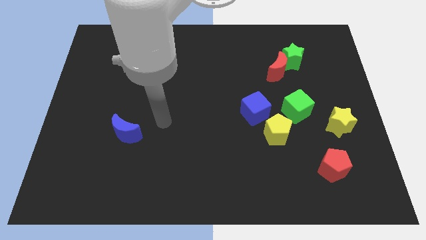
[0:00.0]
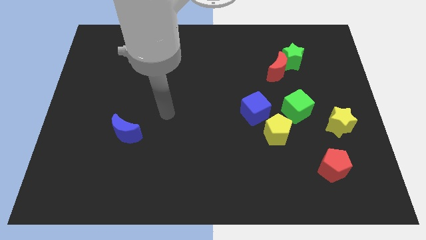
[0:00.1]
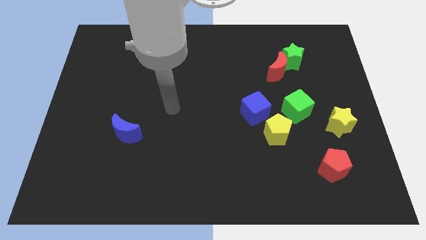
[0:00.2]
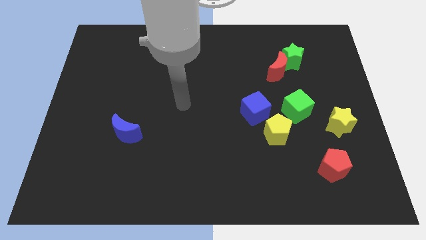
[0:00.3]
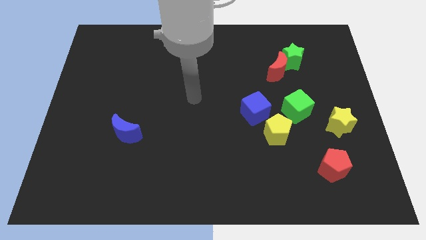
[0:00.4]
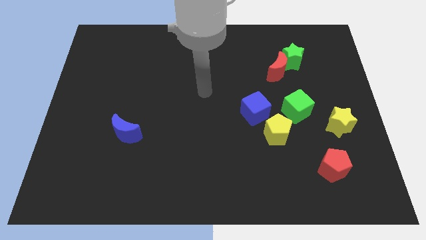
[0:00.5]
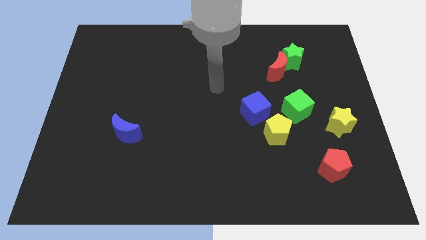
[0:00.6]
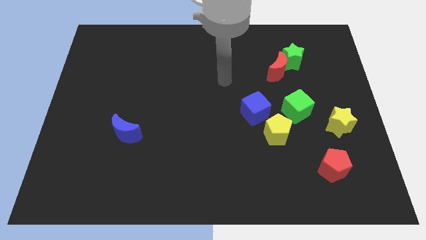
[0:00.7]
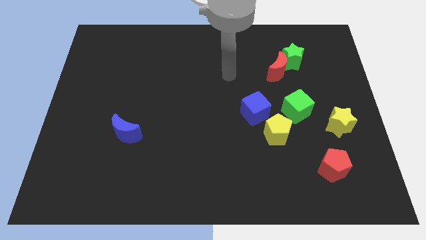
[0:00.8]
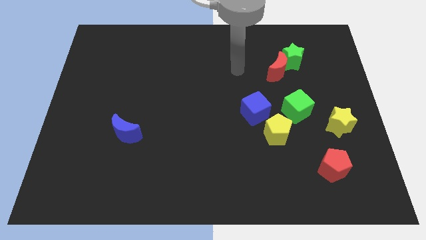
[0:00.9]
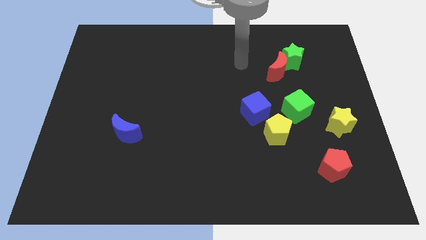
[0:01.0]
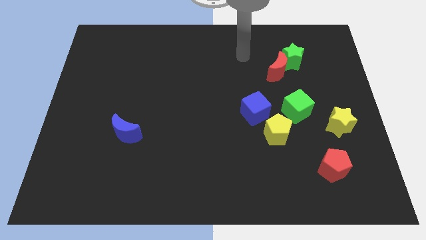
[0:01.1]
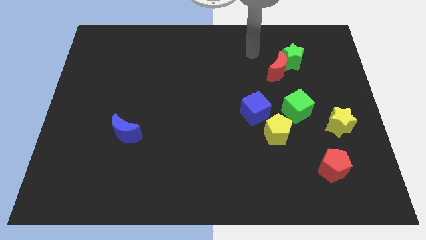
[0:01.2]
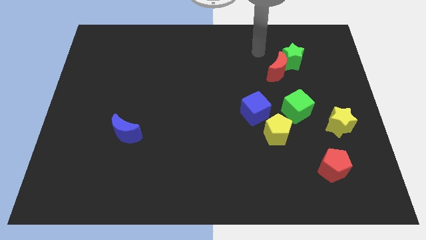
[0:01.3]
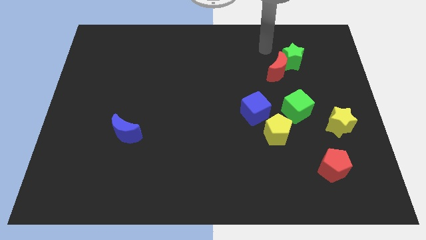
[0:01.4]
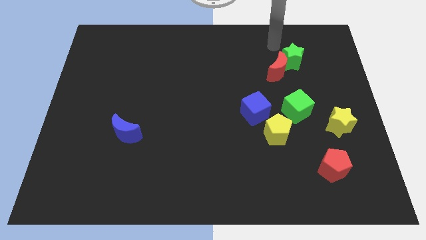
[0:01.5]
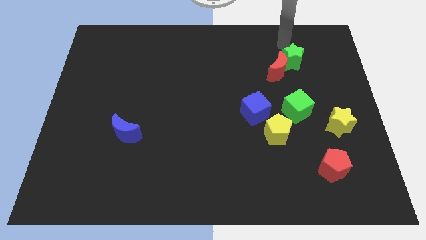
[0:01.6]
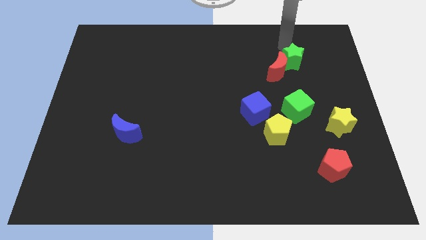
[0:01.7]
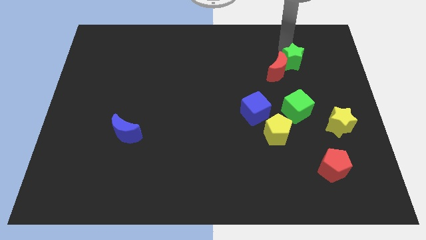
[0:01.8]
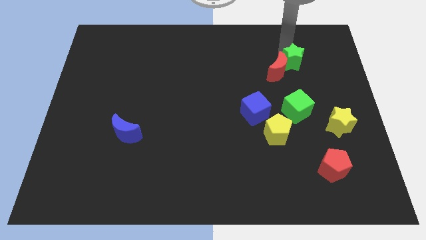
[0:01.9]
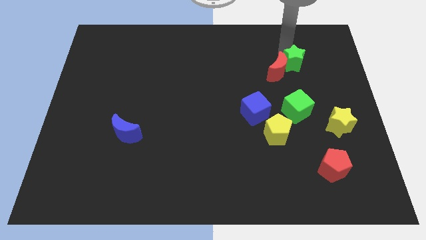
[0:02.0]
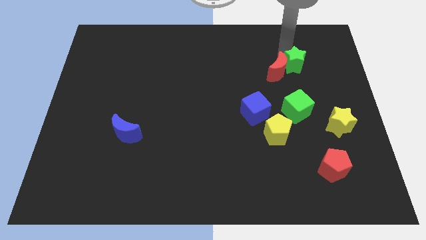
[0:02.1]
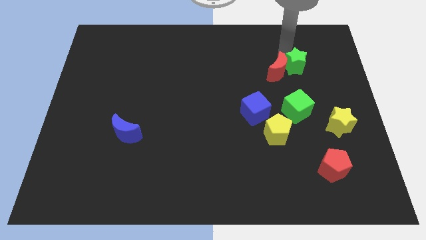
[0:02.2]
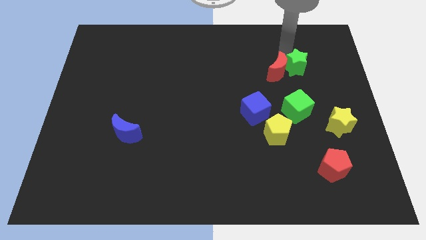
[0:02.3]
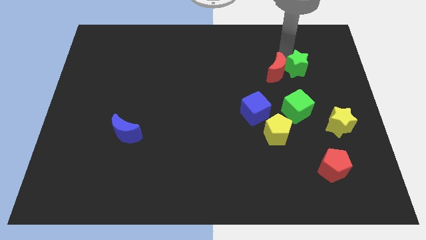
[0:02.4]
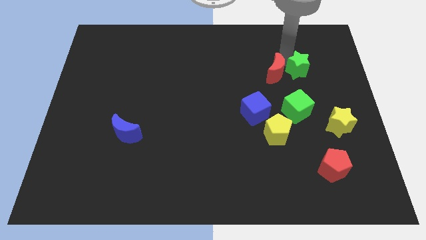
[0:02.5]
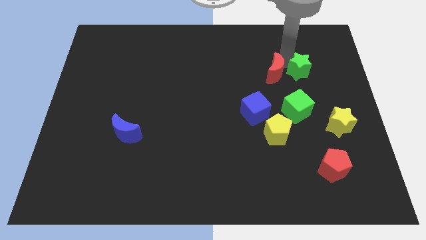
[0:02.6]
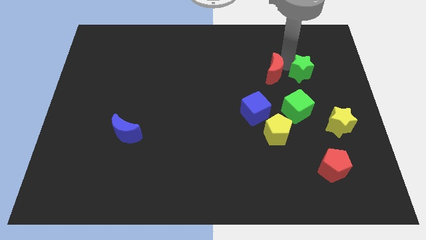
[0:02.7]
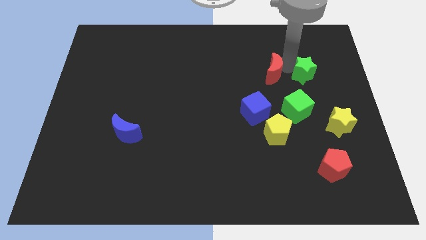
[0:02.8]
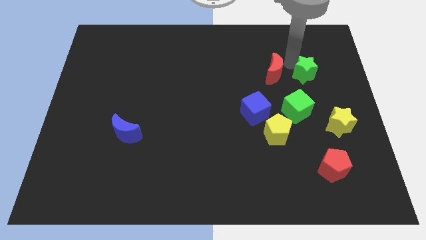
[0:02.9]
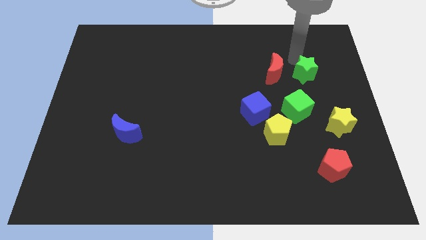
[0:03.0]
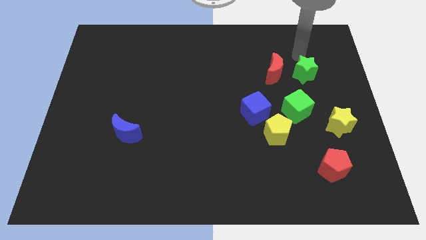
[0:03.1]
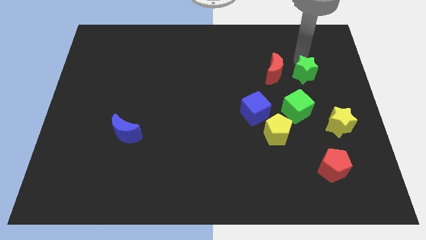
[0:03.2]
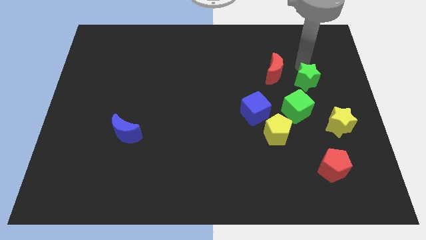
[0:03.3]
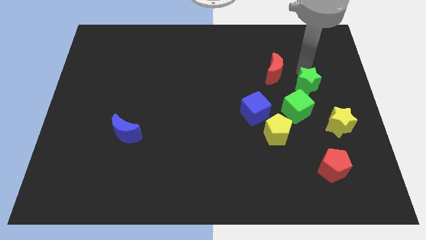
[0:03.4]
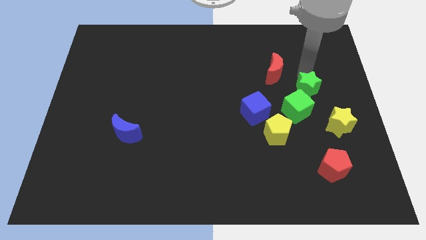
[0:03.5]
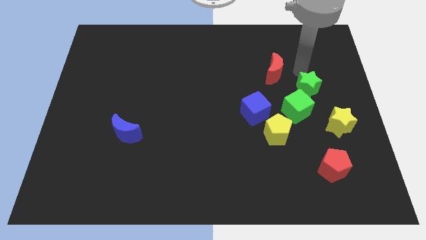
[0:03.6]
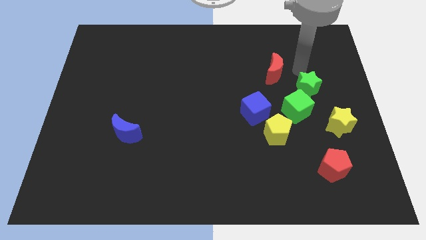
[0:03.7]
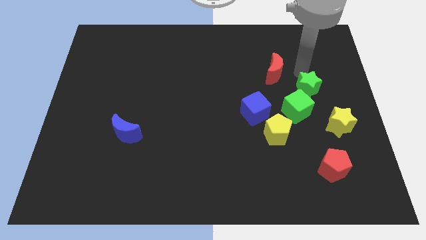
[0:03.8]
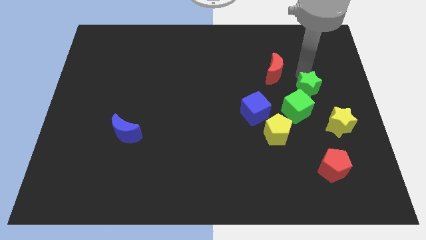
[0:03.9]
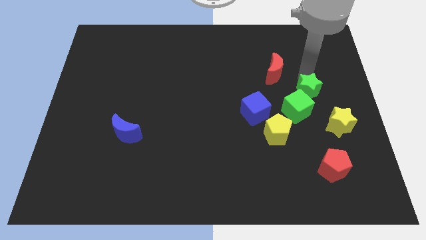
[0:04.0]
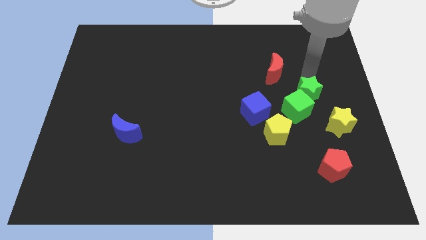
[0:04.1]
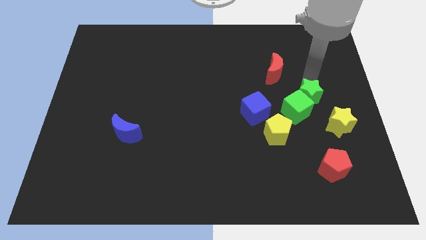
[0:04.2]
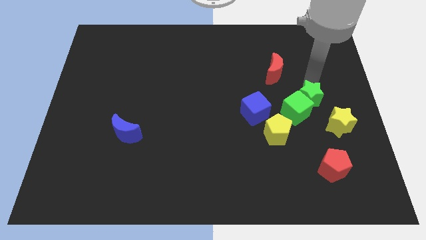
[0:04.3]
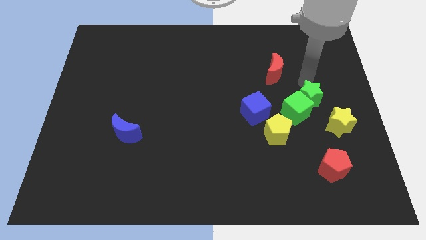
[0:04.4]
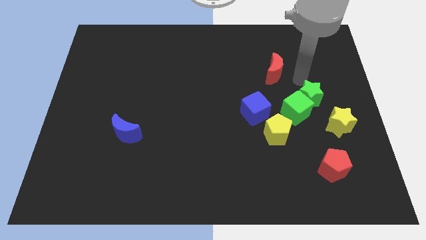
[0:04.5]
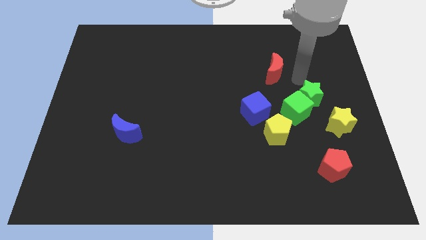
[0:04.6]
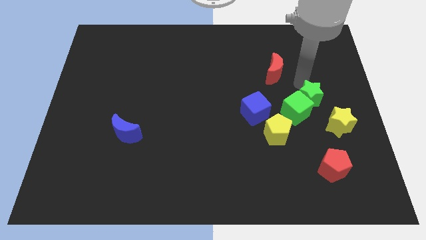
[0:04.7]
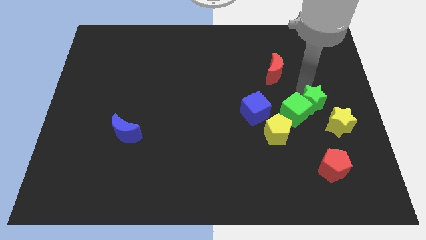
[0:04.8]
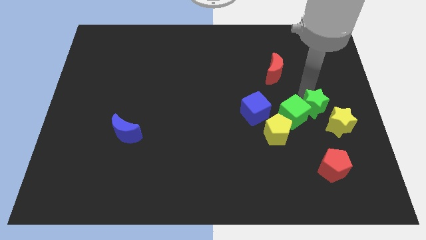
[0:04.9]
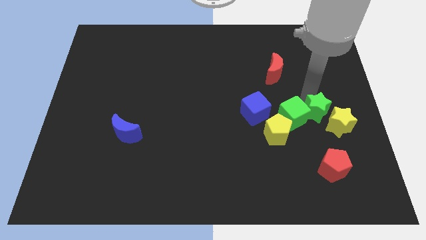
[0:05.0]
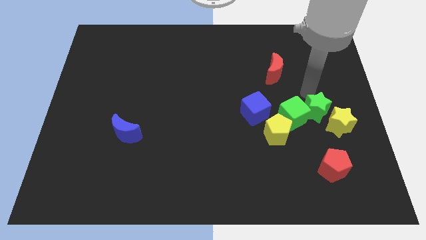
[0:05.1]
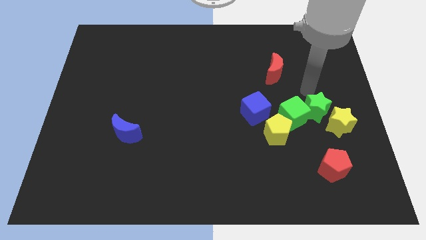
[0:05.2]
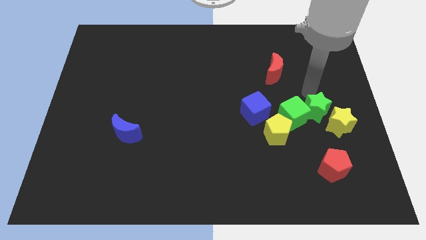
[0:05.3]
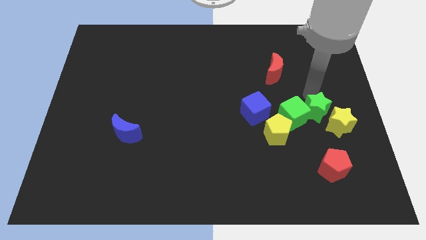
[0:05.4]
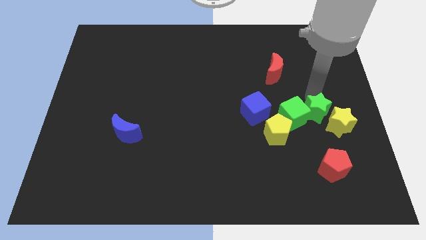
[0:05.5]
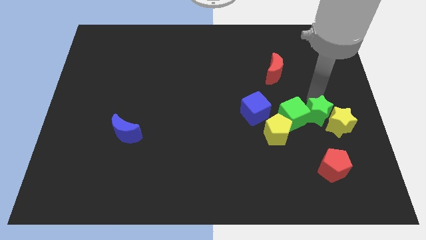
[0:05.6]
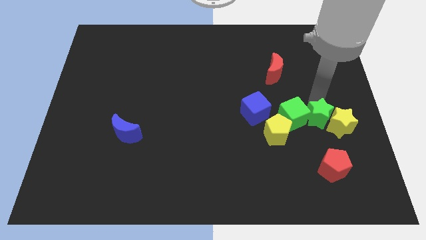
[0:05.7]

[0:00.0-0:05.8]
slide the green star to the right side of the yellow pentagon

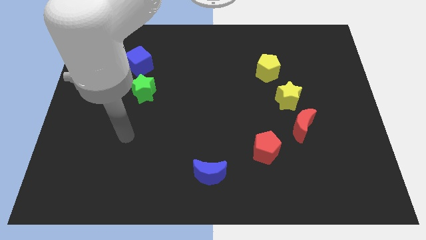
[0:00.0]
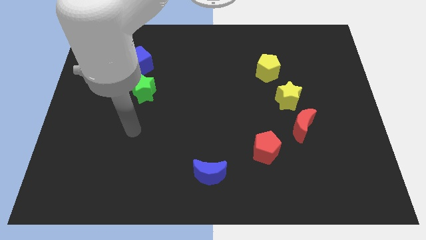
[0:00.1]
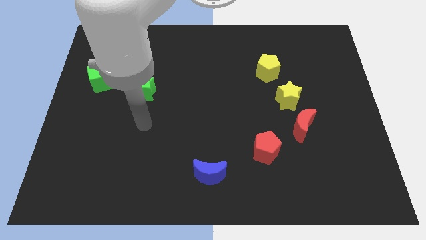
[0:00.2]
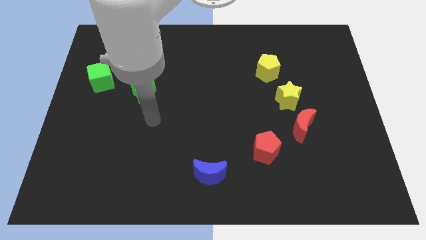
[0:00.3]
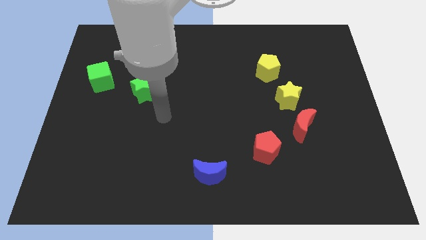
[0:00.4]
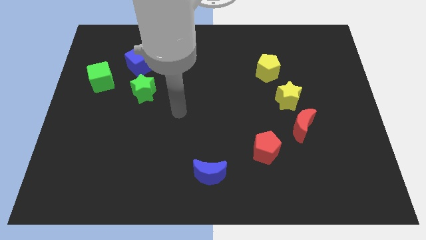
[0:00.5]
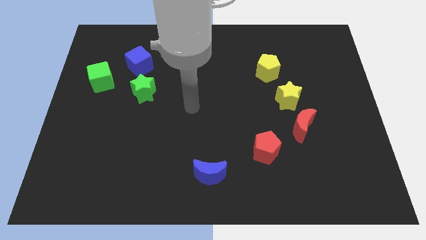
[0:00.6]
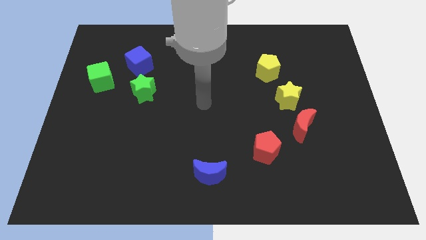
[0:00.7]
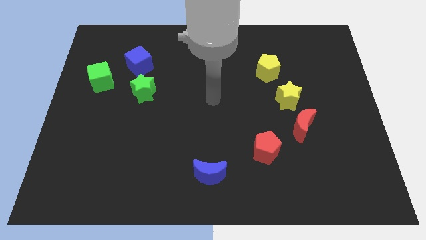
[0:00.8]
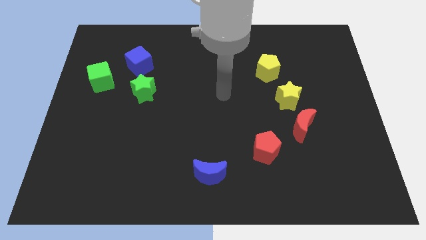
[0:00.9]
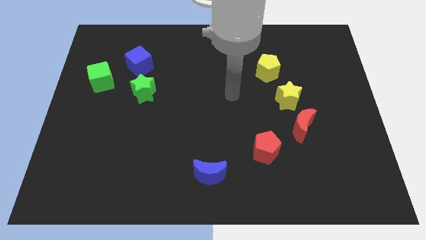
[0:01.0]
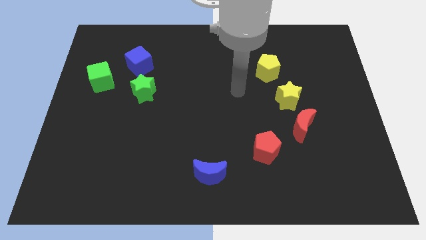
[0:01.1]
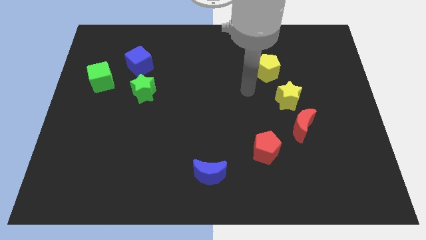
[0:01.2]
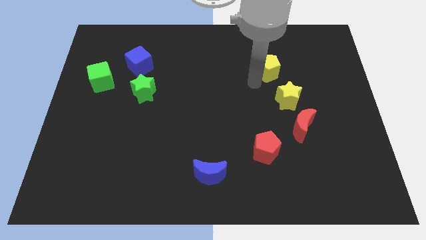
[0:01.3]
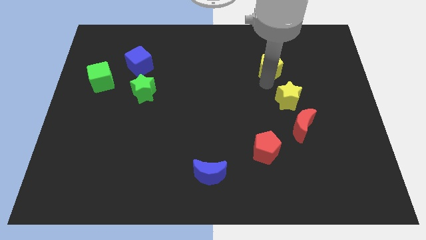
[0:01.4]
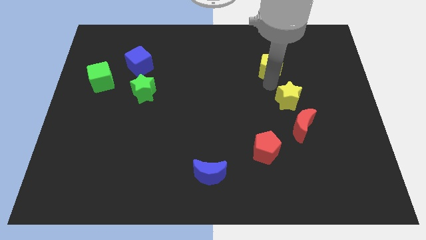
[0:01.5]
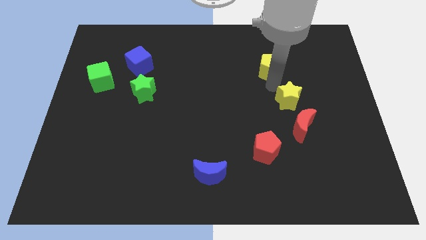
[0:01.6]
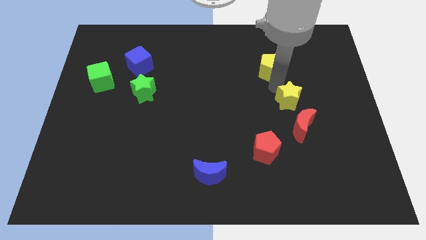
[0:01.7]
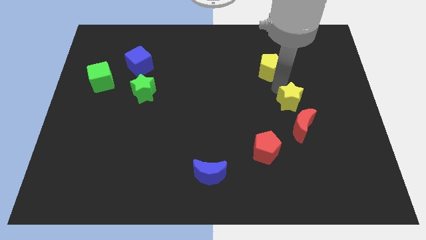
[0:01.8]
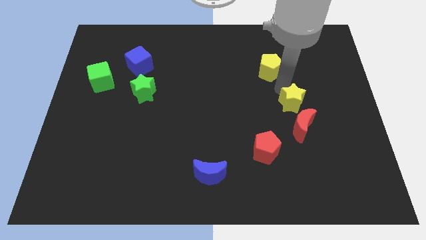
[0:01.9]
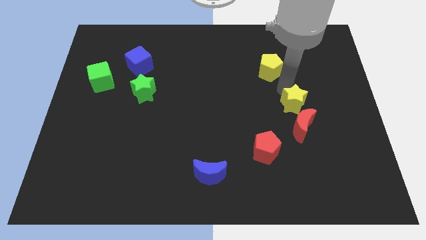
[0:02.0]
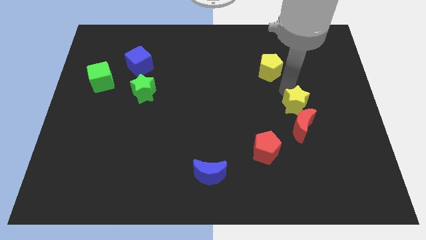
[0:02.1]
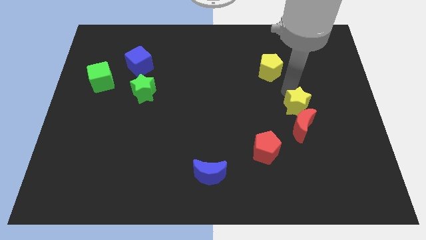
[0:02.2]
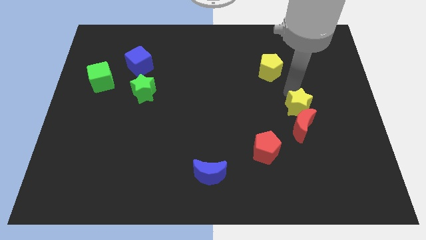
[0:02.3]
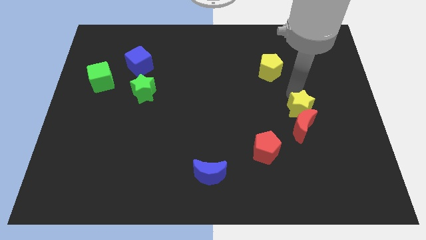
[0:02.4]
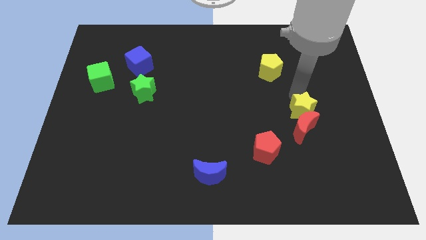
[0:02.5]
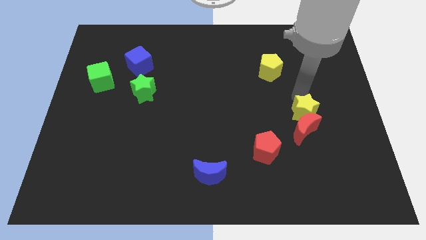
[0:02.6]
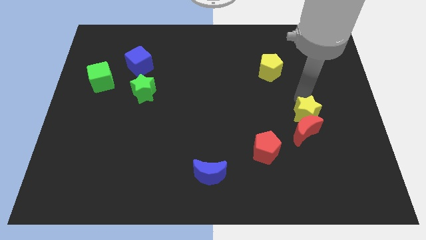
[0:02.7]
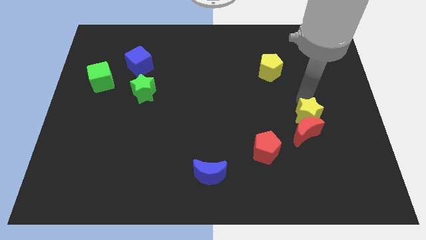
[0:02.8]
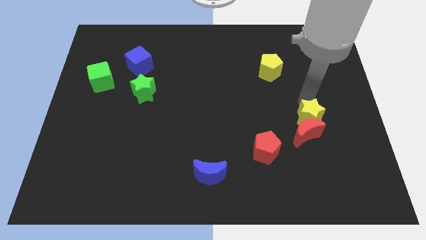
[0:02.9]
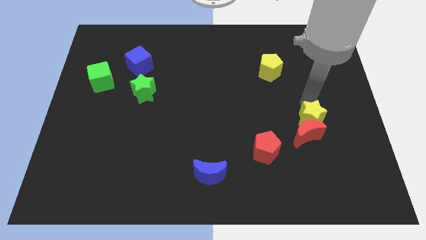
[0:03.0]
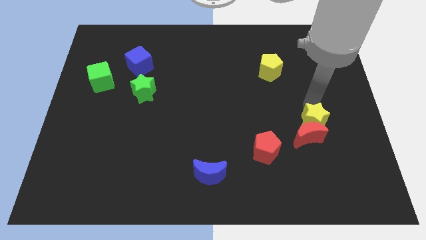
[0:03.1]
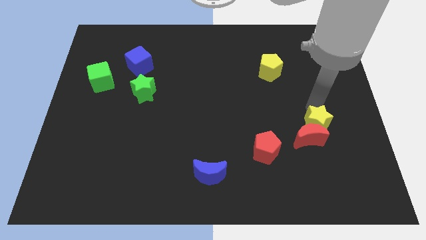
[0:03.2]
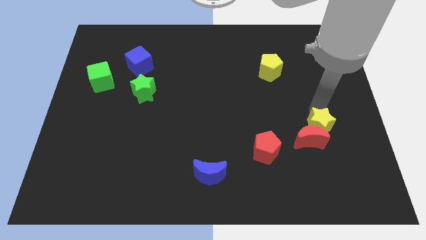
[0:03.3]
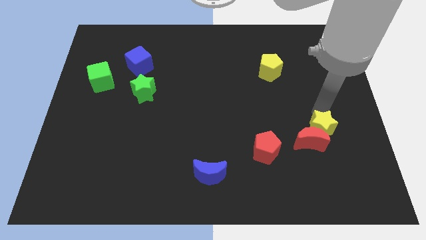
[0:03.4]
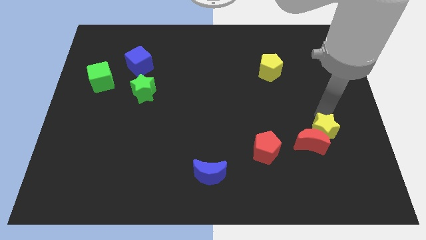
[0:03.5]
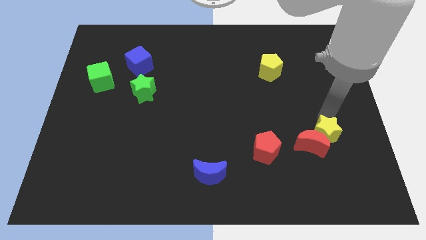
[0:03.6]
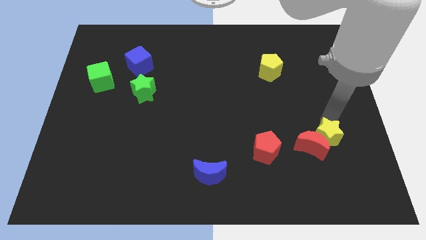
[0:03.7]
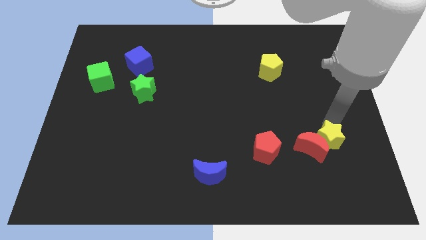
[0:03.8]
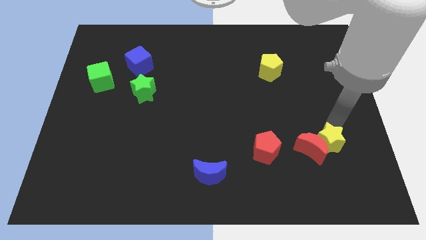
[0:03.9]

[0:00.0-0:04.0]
put the yellow star diagonally down and to the right of the red moon
